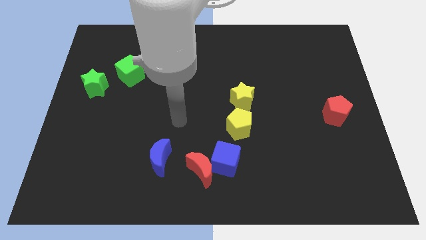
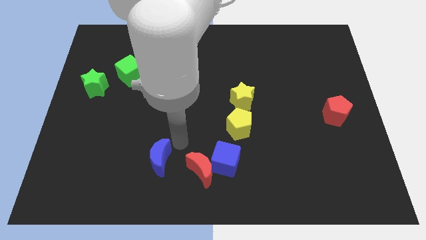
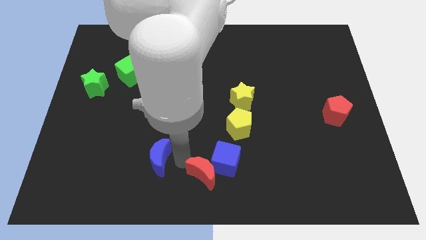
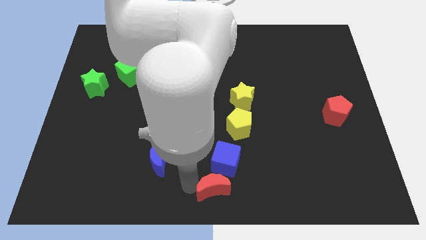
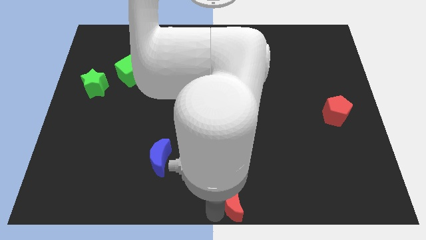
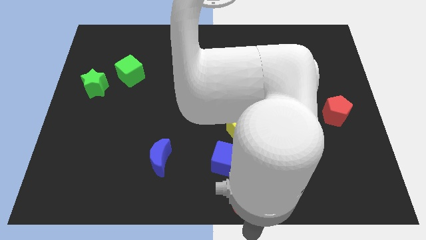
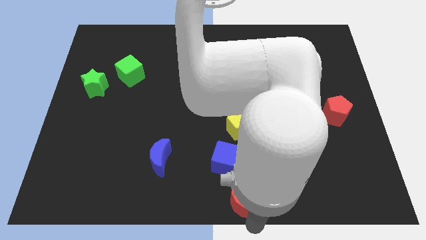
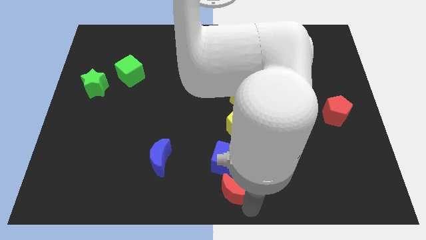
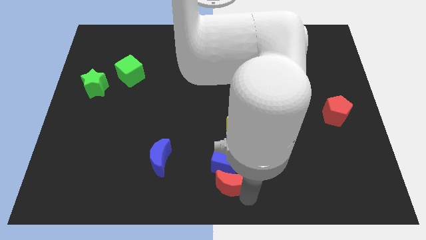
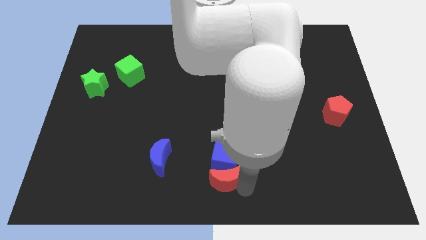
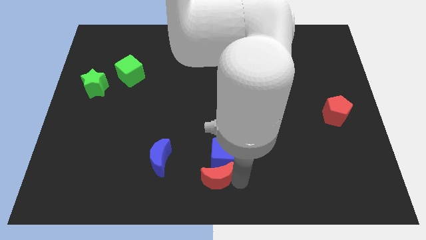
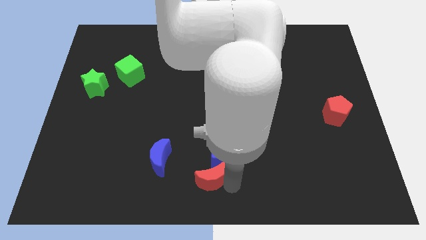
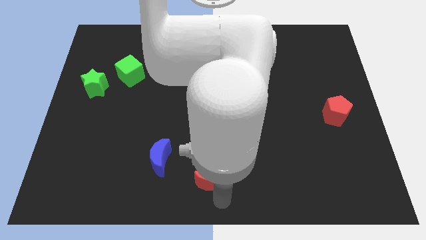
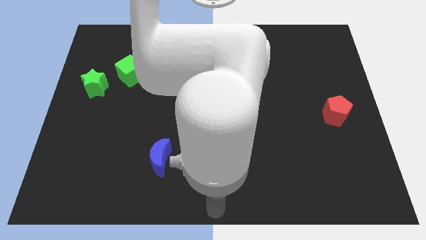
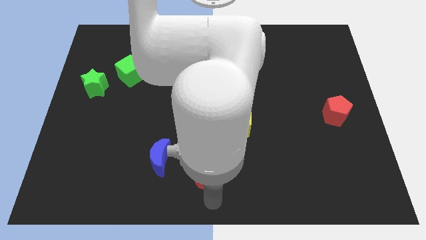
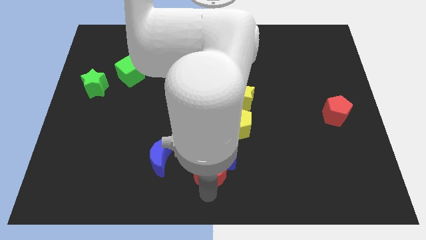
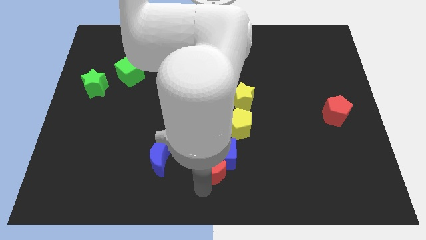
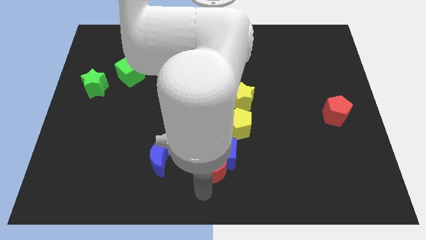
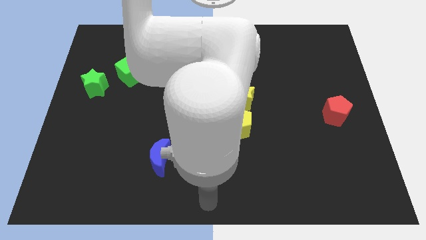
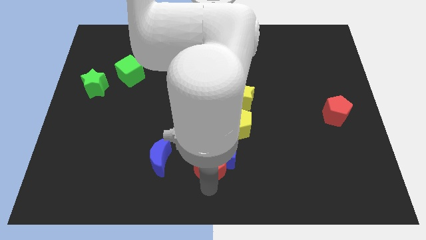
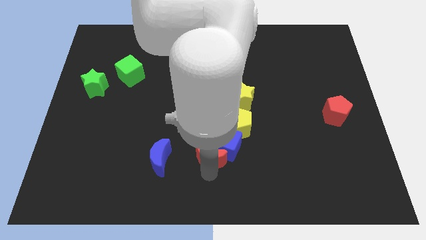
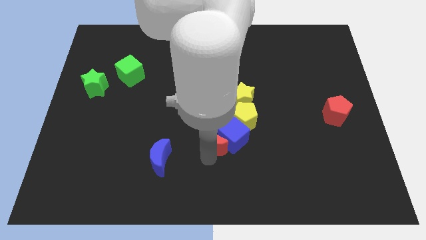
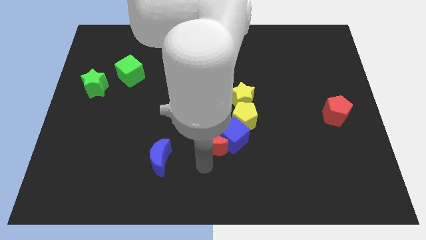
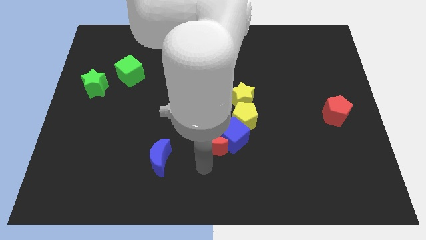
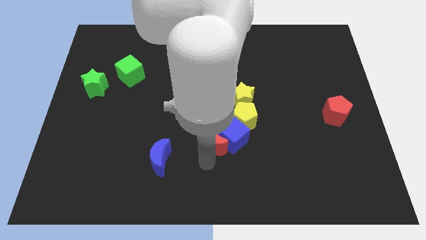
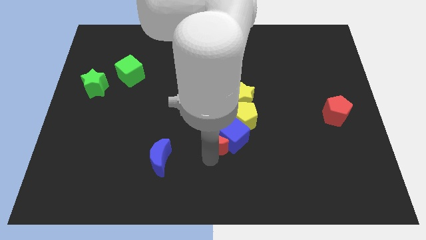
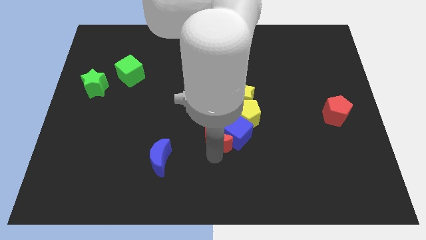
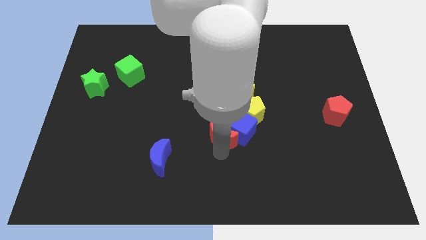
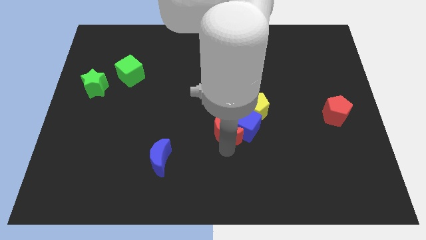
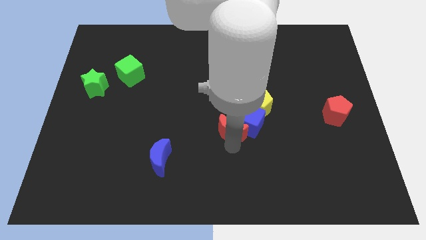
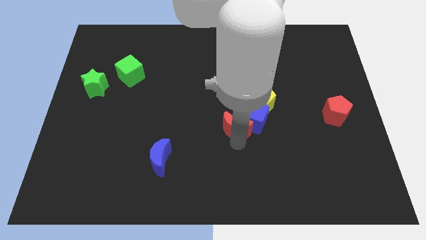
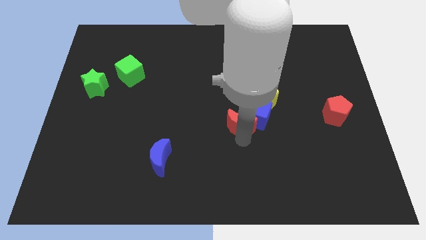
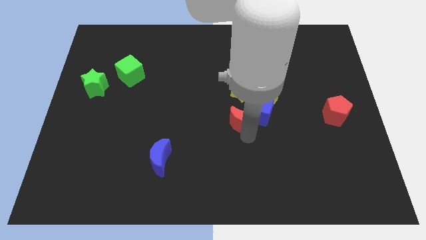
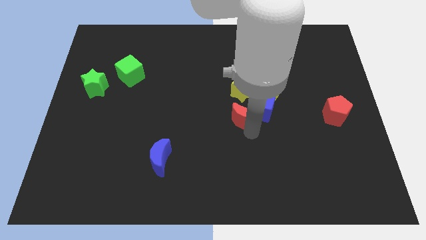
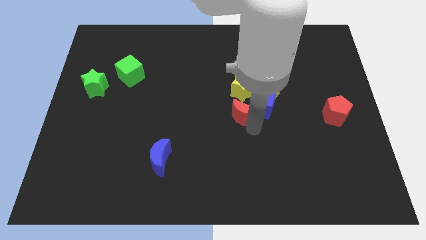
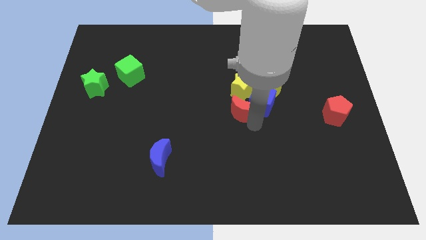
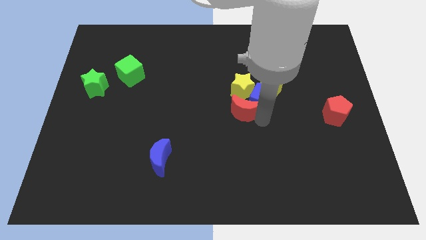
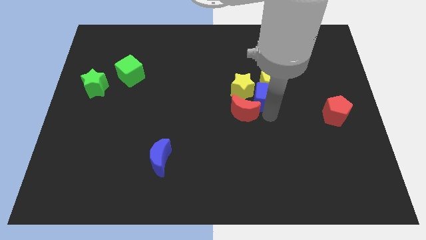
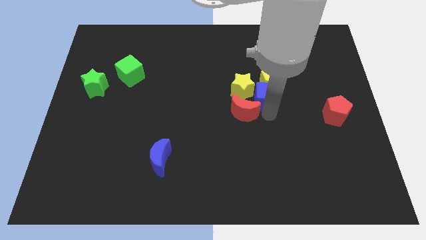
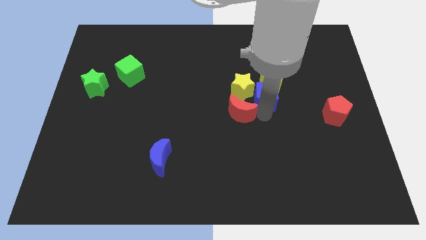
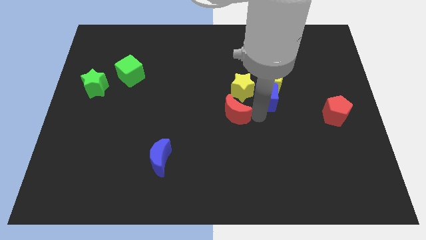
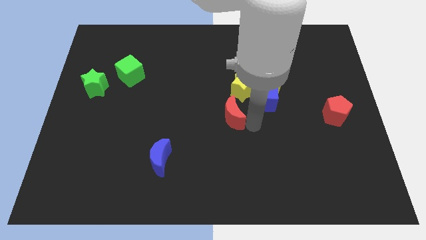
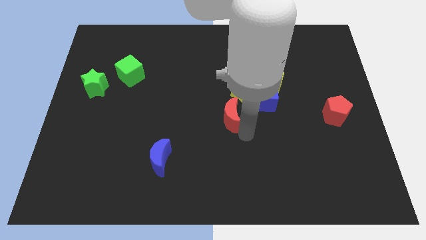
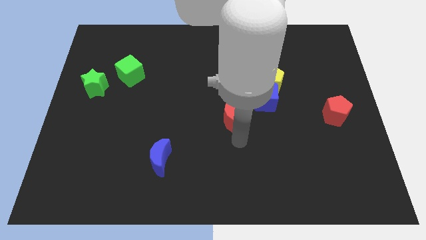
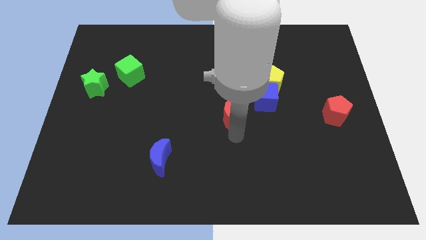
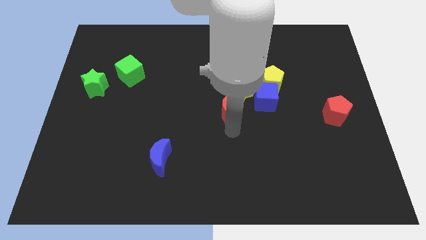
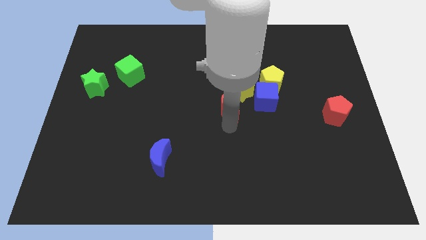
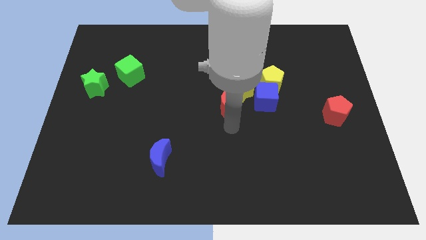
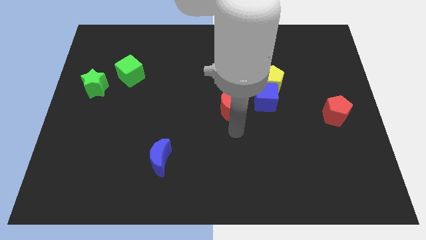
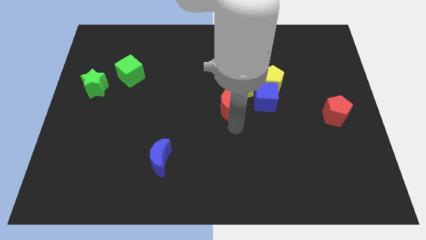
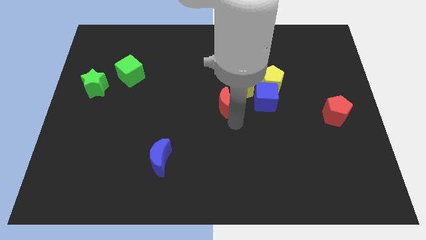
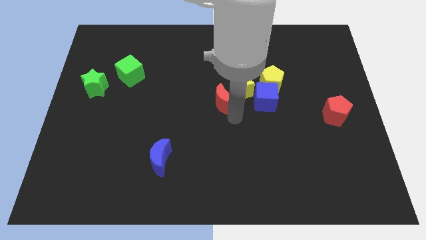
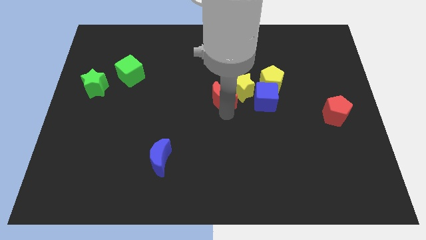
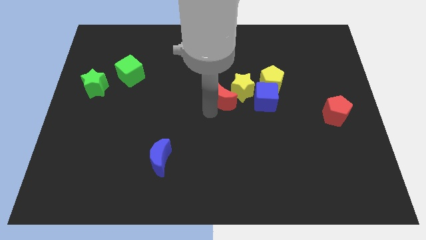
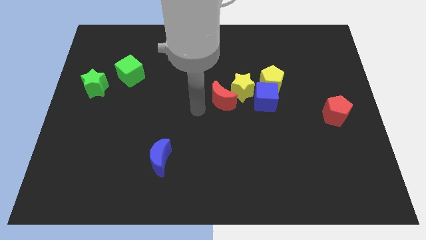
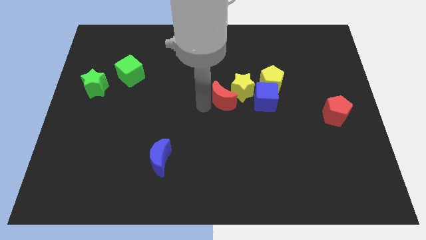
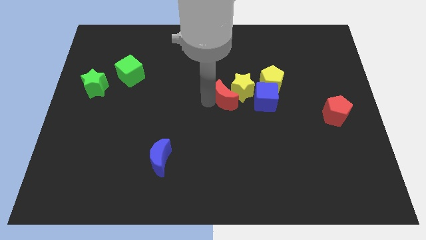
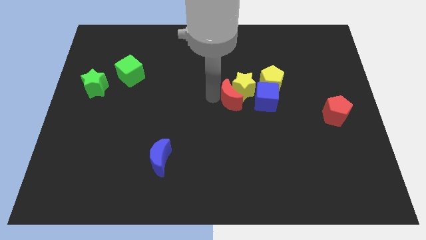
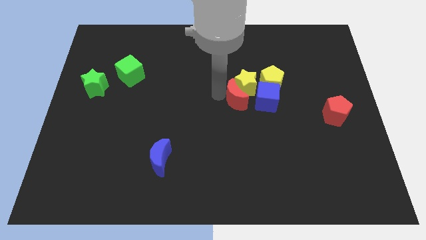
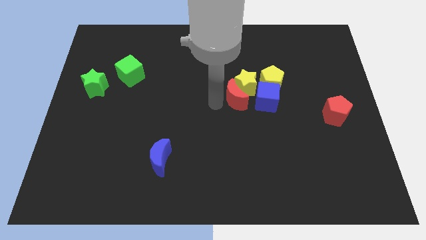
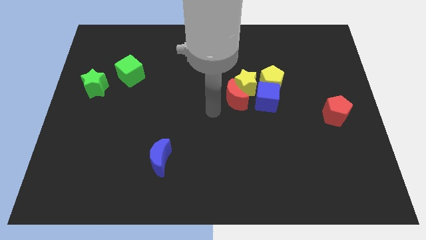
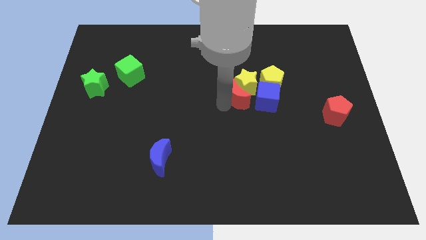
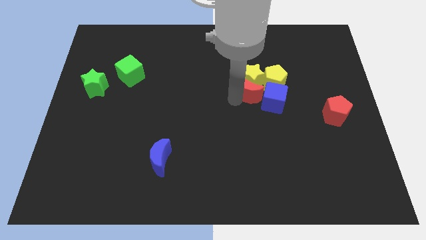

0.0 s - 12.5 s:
push the red moon upwards and right diagonally

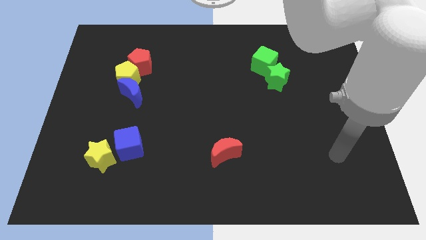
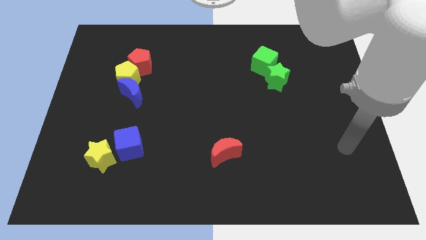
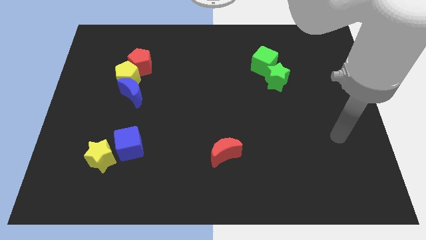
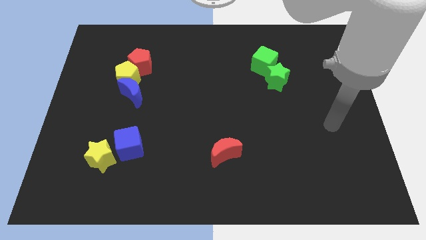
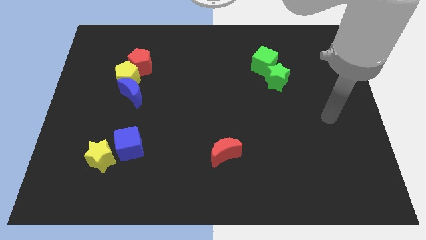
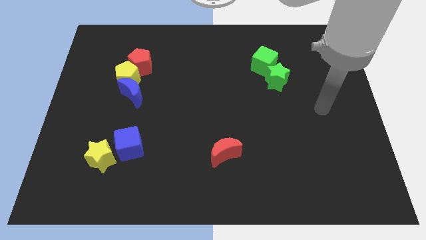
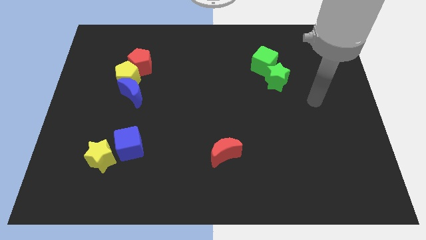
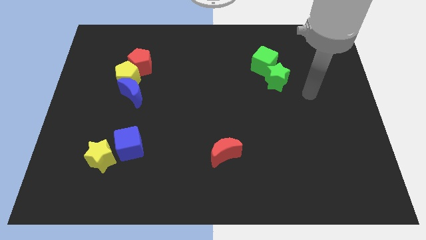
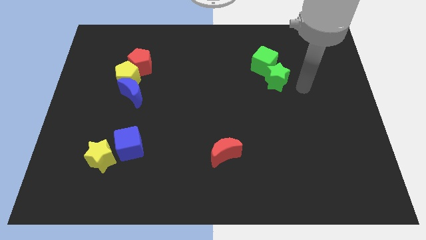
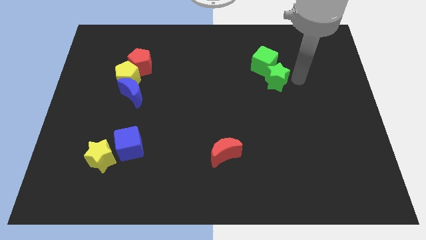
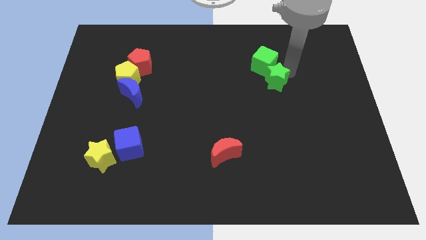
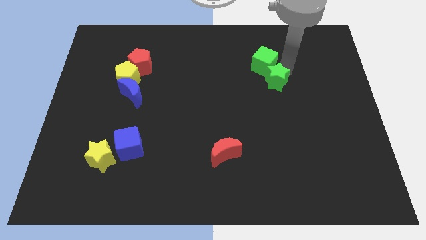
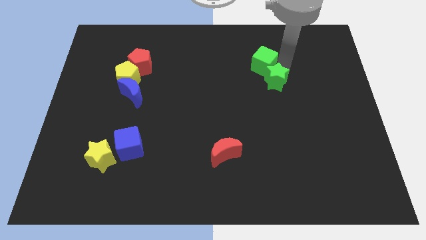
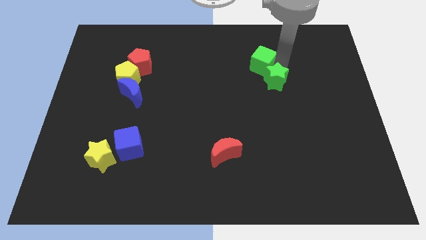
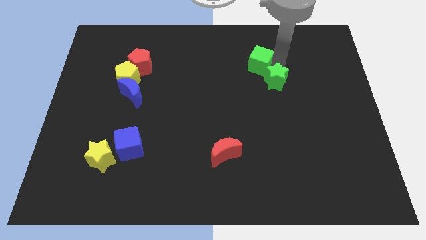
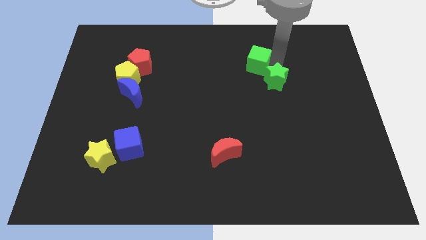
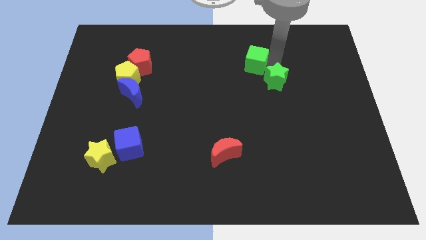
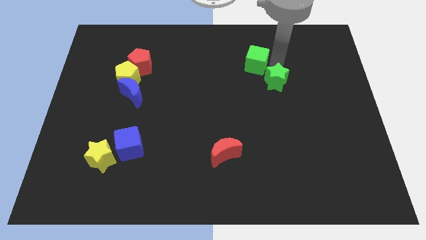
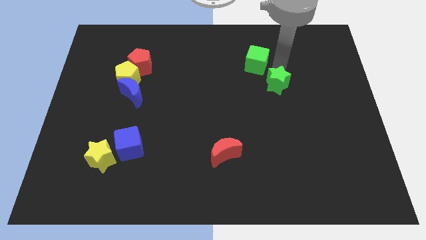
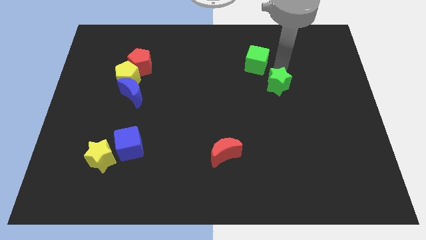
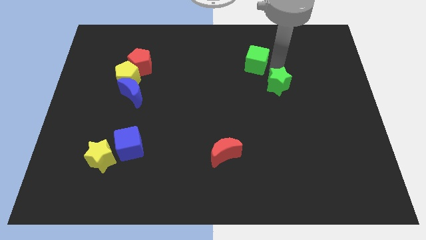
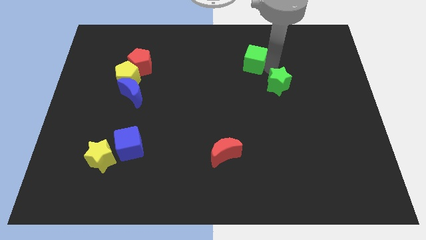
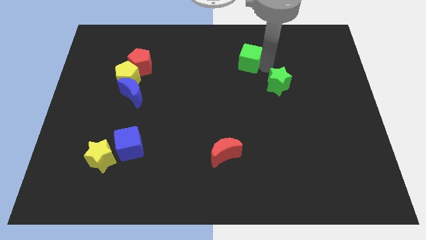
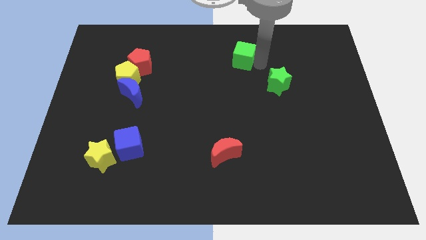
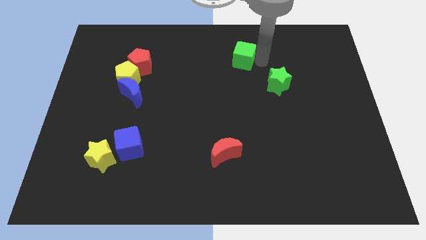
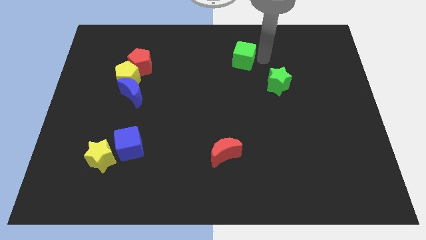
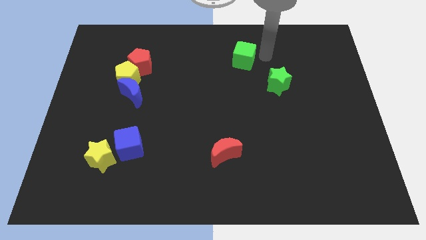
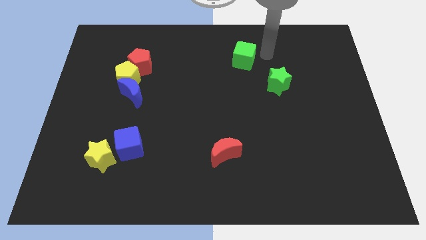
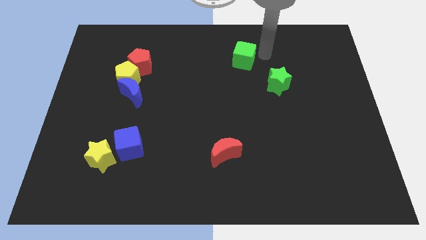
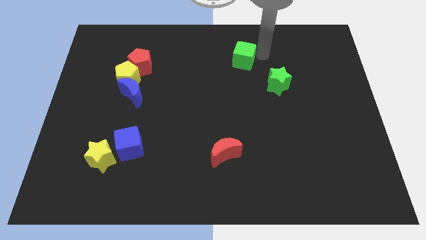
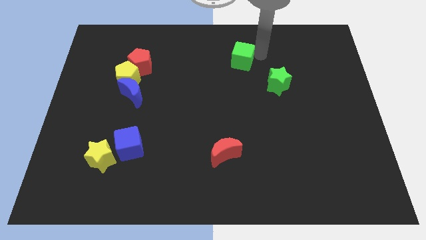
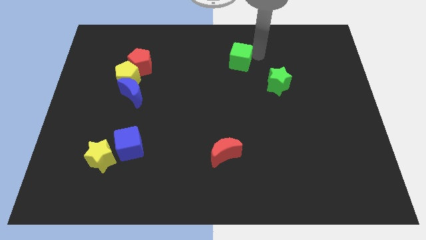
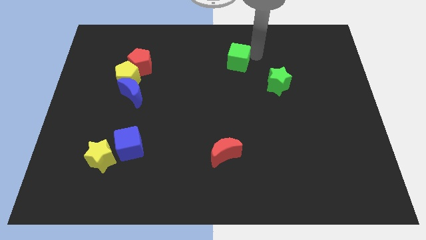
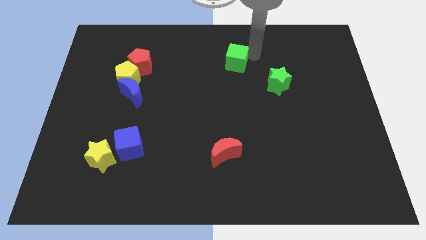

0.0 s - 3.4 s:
push the green cube a bit to the left
